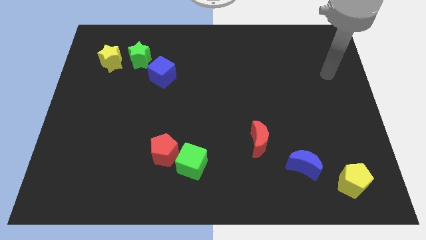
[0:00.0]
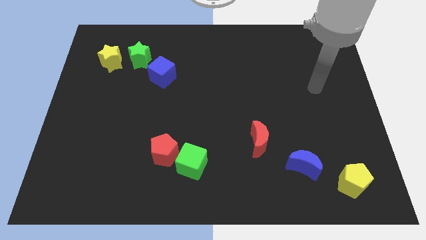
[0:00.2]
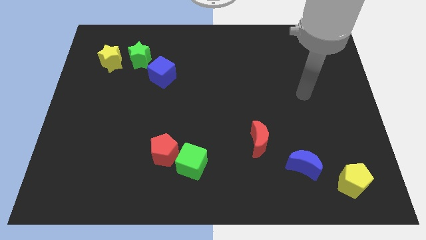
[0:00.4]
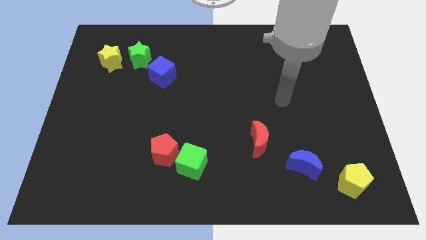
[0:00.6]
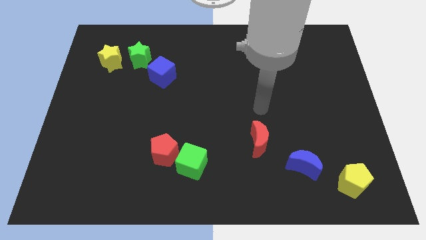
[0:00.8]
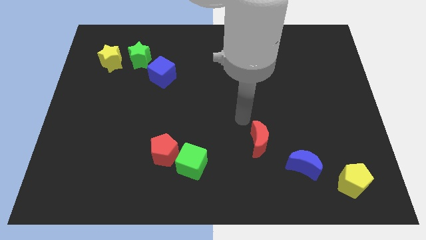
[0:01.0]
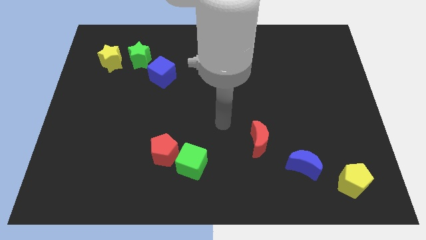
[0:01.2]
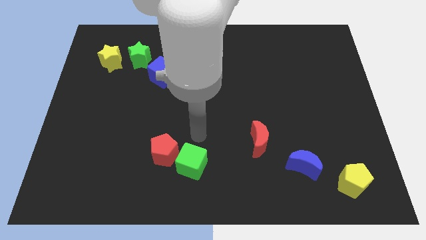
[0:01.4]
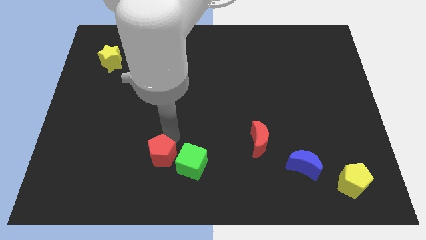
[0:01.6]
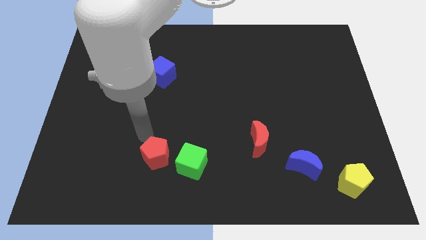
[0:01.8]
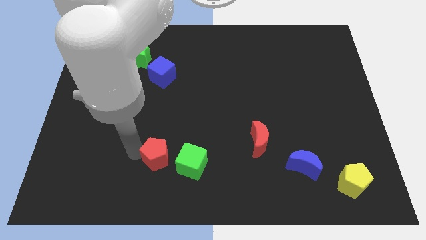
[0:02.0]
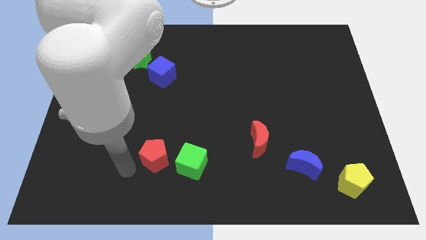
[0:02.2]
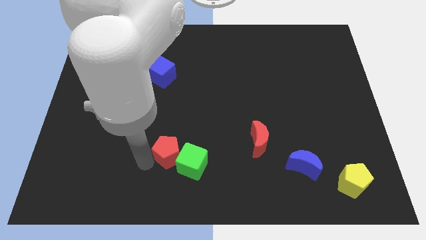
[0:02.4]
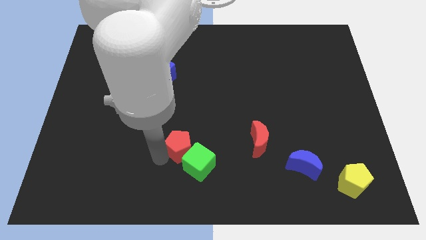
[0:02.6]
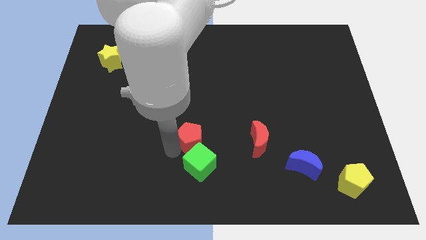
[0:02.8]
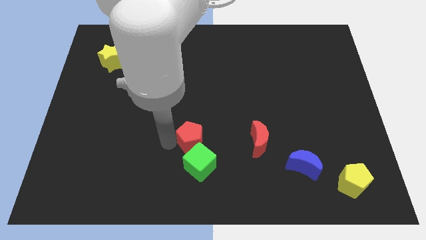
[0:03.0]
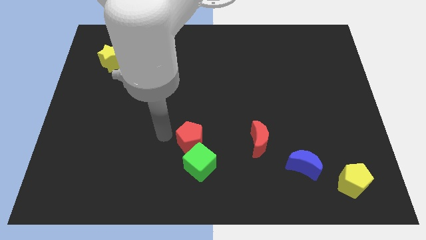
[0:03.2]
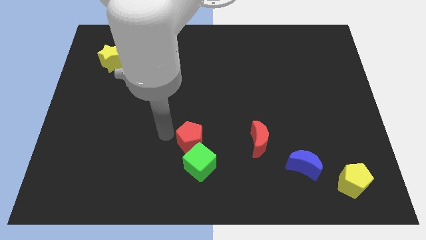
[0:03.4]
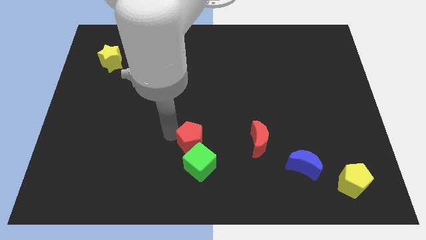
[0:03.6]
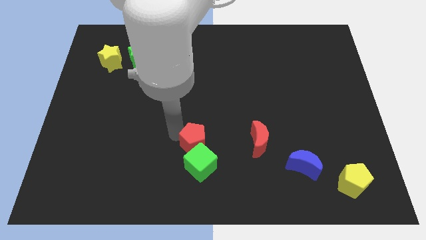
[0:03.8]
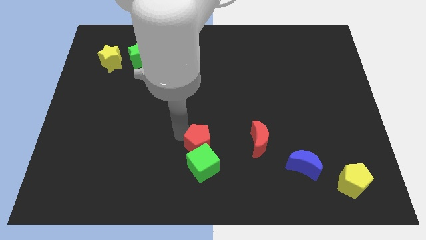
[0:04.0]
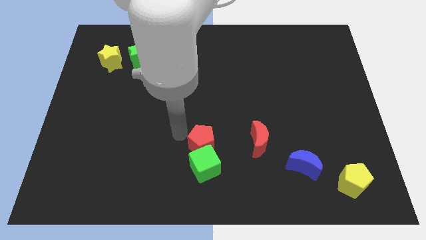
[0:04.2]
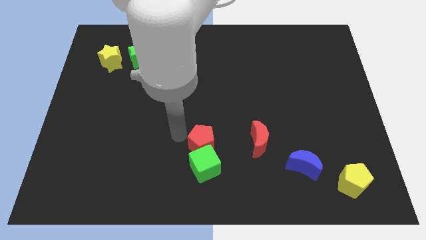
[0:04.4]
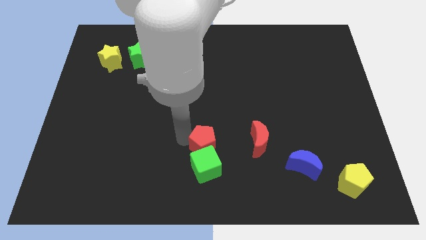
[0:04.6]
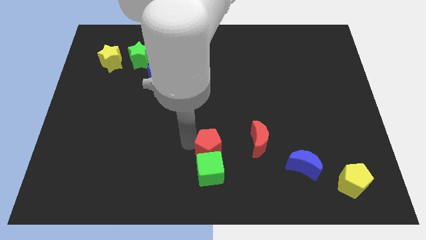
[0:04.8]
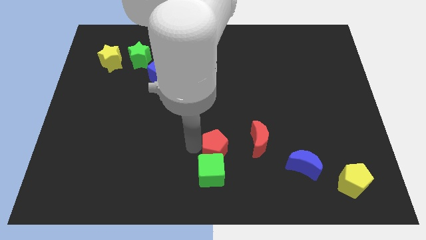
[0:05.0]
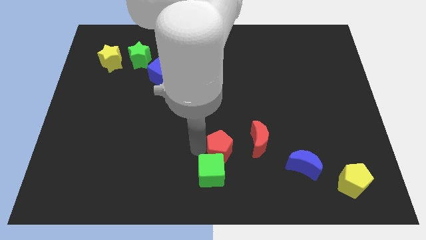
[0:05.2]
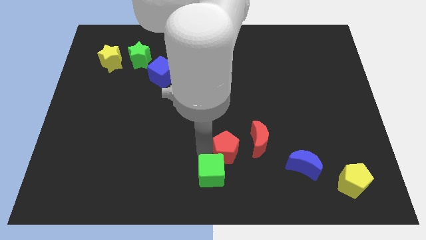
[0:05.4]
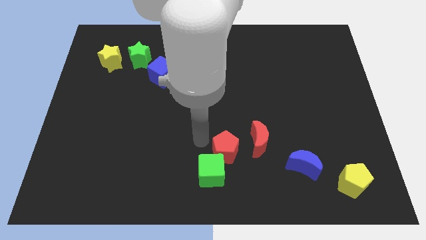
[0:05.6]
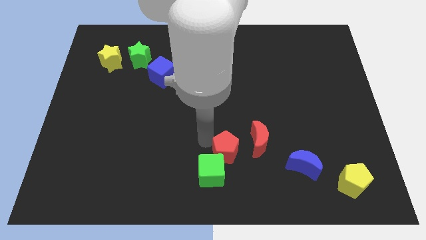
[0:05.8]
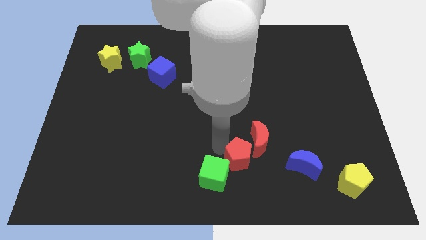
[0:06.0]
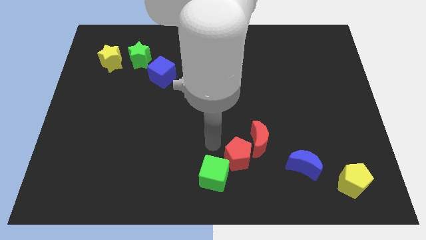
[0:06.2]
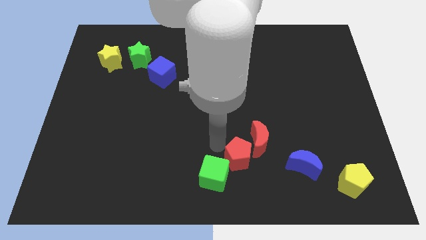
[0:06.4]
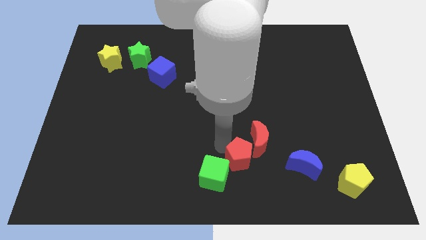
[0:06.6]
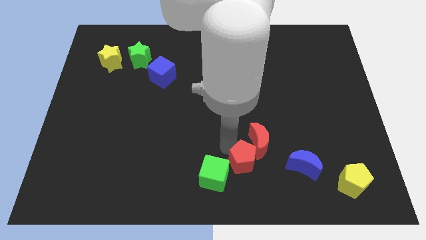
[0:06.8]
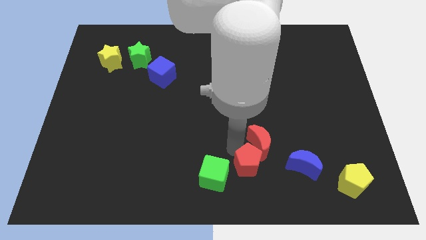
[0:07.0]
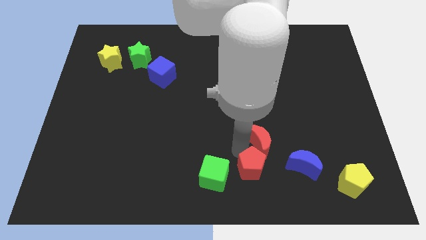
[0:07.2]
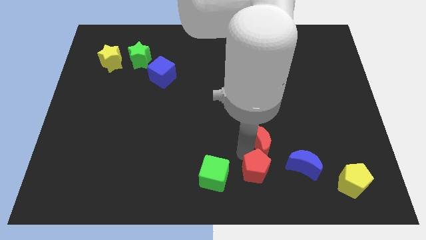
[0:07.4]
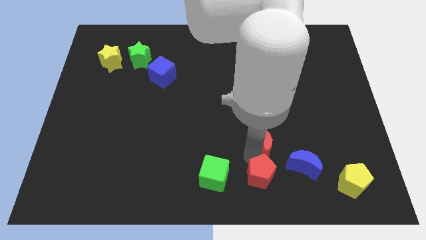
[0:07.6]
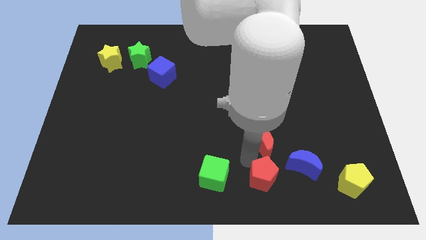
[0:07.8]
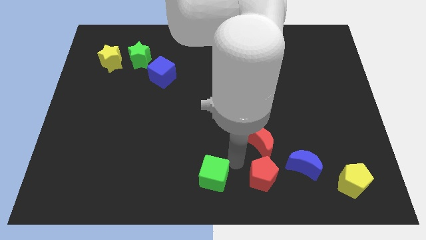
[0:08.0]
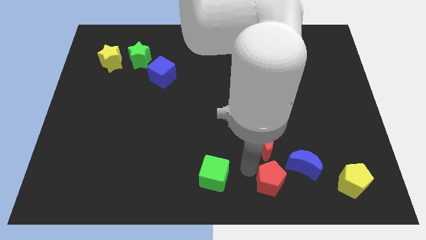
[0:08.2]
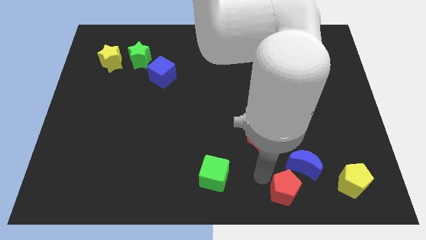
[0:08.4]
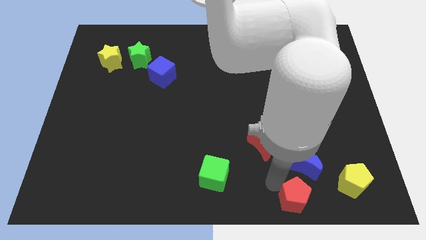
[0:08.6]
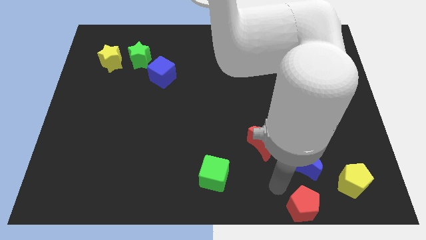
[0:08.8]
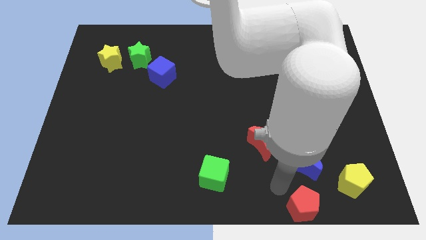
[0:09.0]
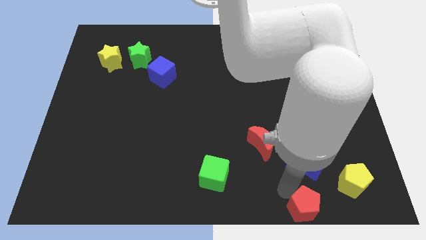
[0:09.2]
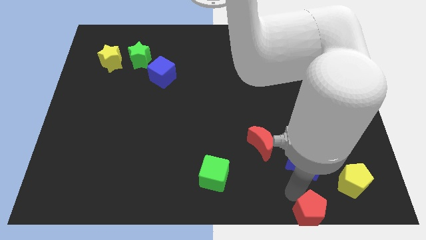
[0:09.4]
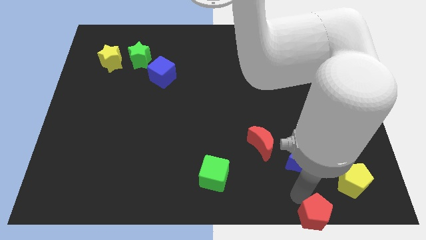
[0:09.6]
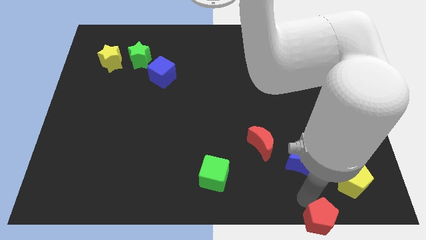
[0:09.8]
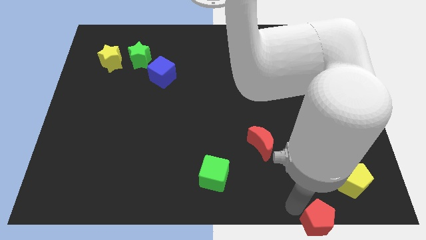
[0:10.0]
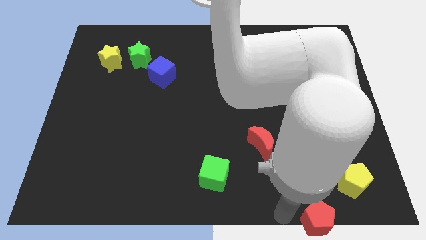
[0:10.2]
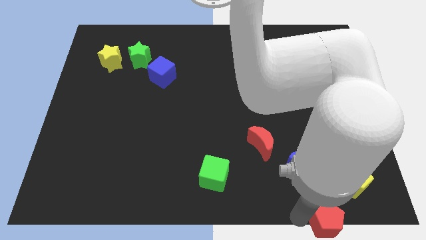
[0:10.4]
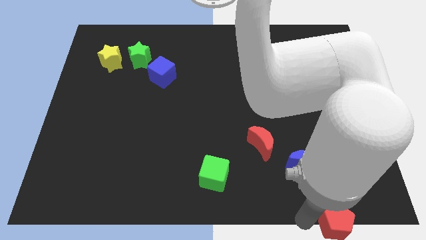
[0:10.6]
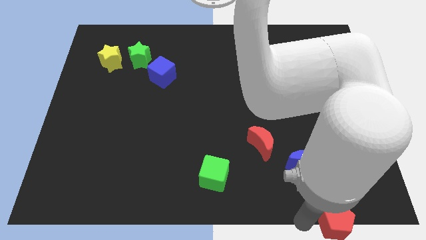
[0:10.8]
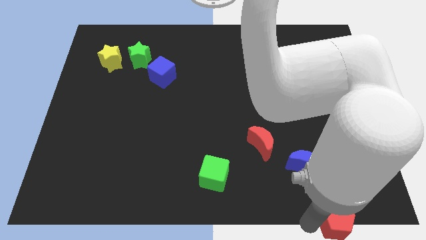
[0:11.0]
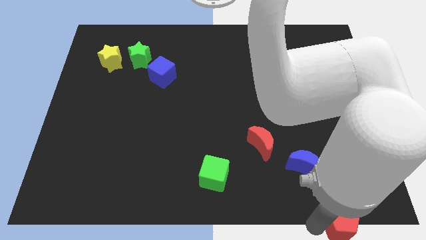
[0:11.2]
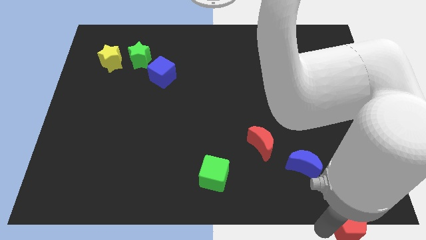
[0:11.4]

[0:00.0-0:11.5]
put the red pentagon to the bottom right of the board

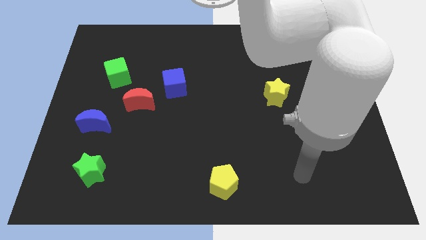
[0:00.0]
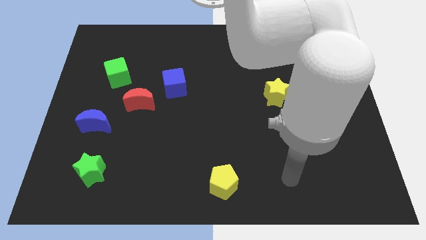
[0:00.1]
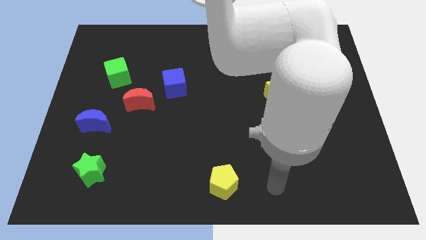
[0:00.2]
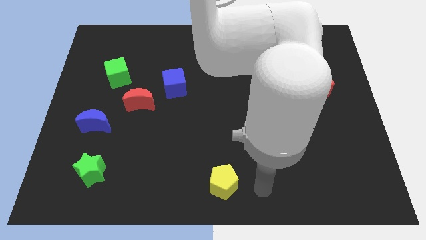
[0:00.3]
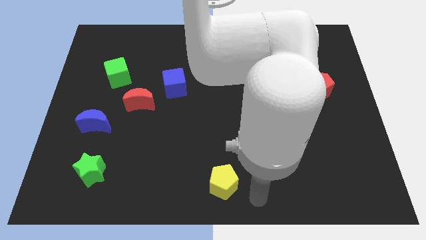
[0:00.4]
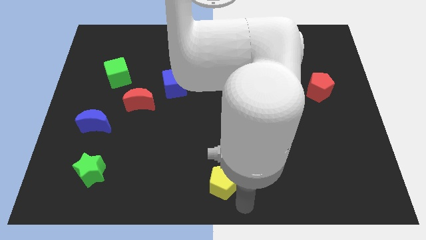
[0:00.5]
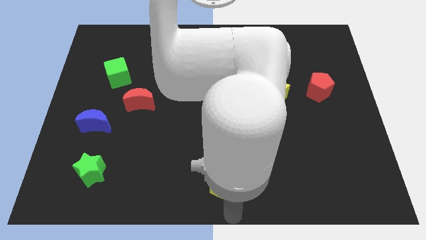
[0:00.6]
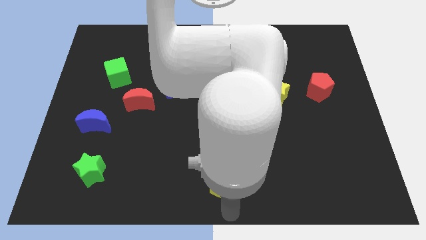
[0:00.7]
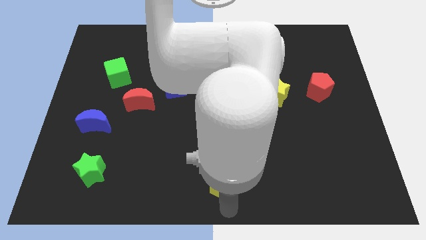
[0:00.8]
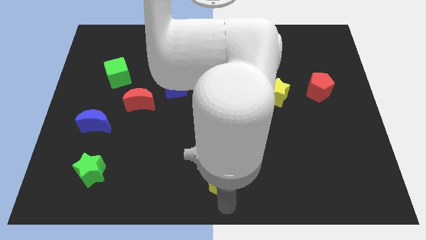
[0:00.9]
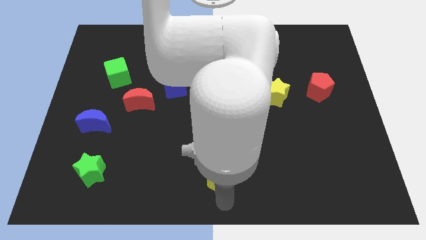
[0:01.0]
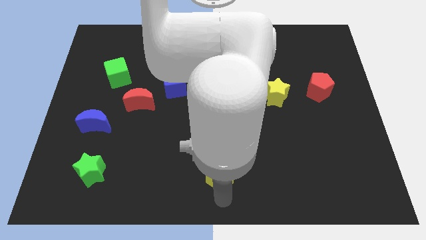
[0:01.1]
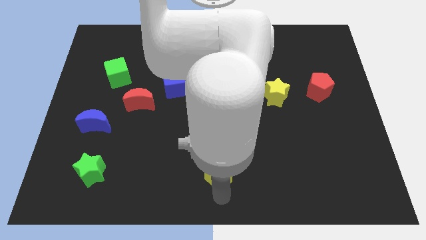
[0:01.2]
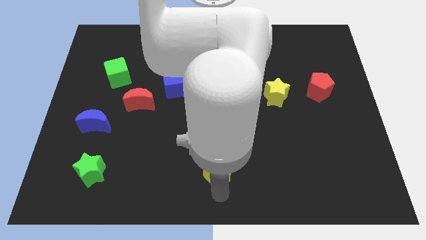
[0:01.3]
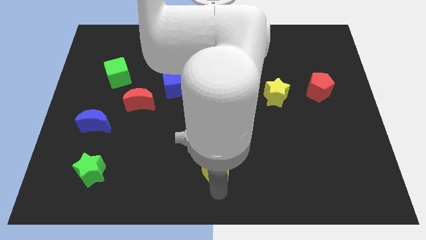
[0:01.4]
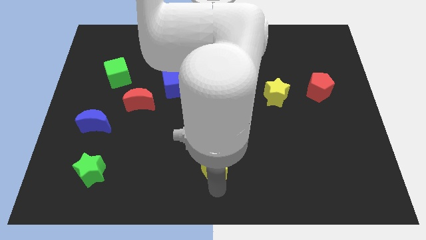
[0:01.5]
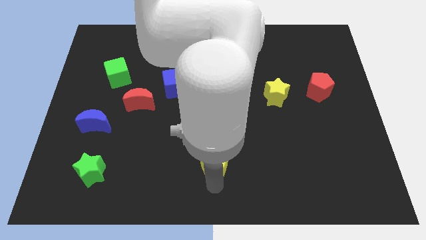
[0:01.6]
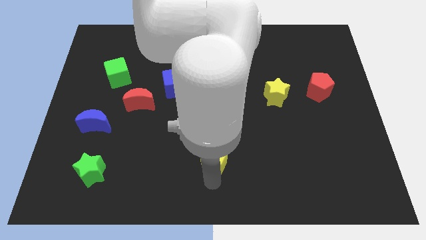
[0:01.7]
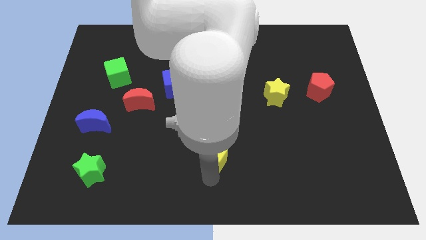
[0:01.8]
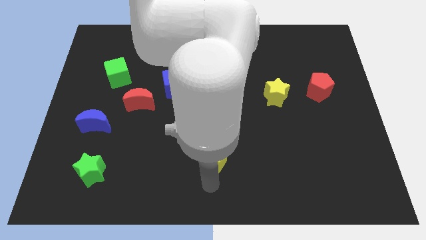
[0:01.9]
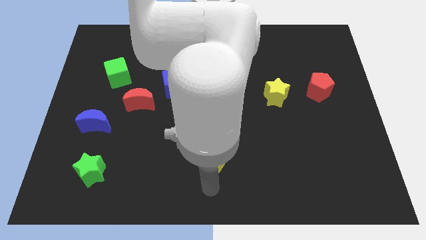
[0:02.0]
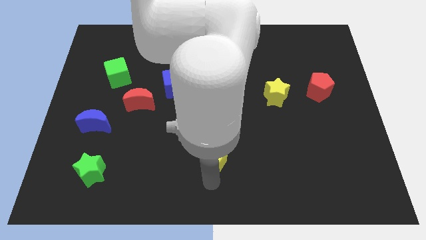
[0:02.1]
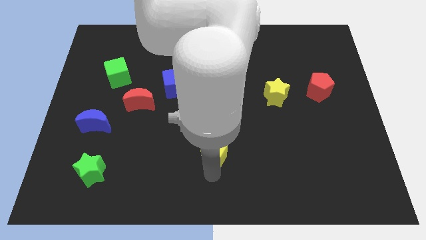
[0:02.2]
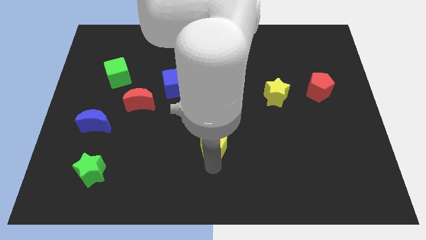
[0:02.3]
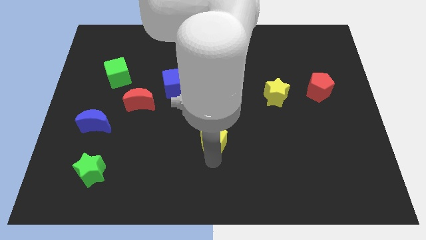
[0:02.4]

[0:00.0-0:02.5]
move the yellow pentagon to the center of the board
